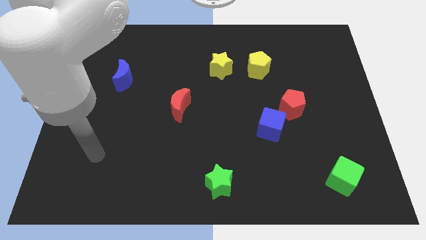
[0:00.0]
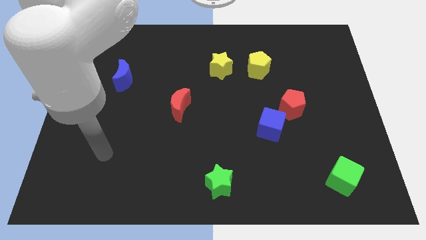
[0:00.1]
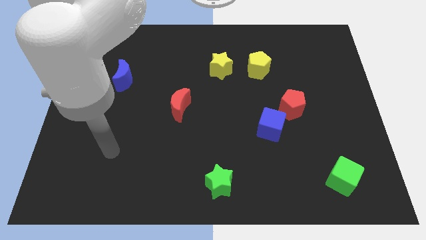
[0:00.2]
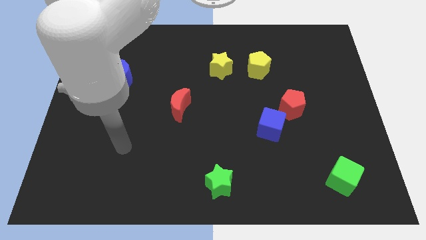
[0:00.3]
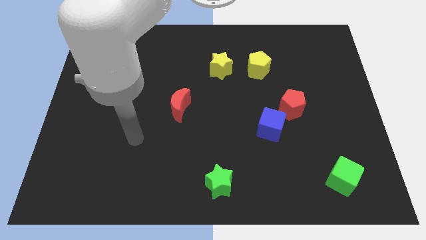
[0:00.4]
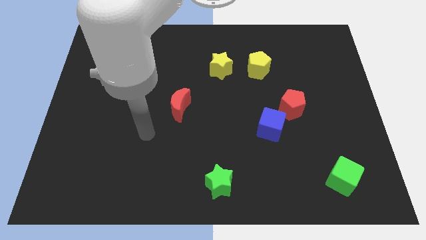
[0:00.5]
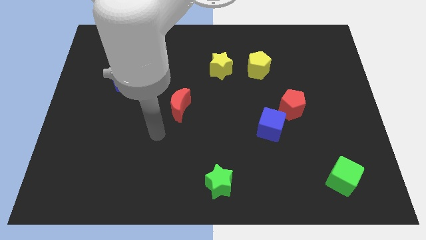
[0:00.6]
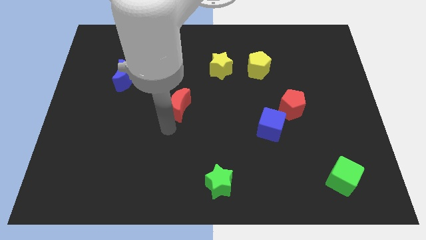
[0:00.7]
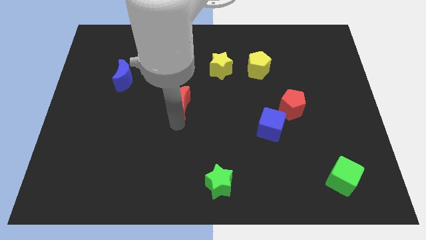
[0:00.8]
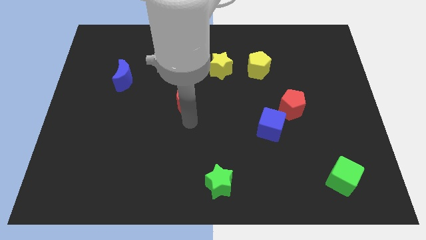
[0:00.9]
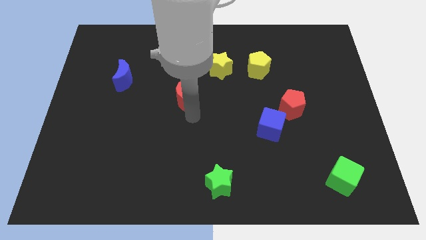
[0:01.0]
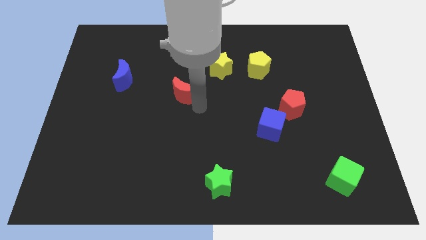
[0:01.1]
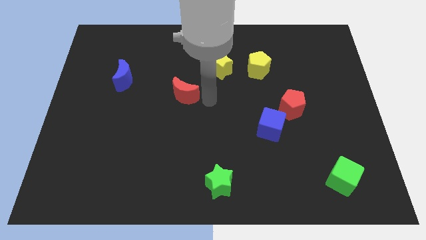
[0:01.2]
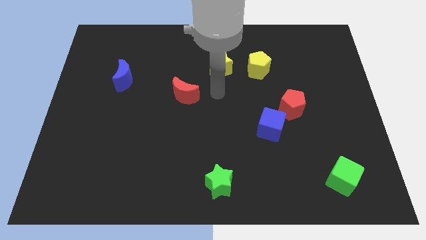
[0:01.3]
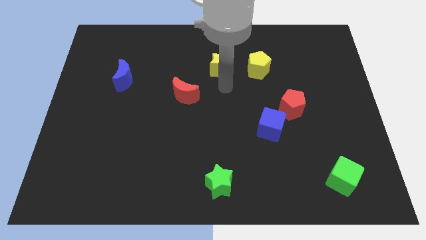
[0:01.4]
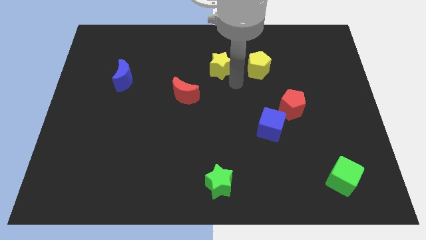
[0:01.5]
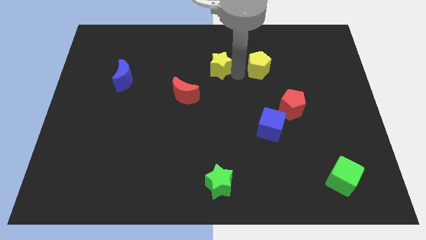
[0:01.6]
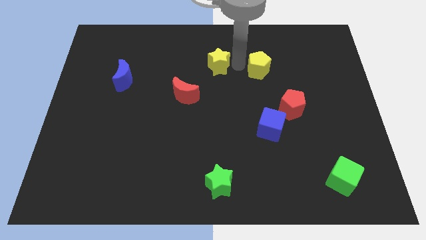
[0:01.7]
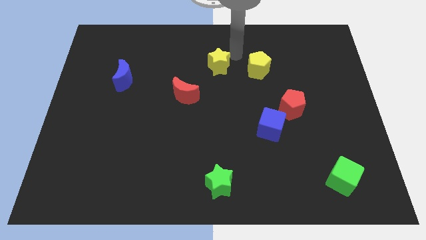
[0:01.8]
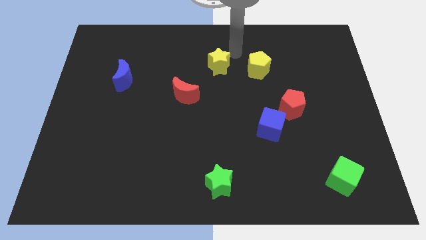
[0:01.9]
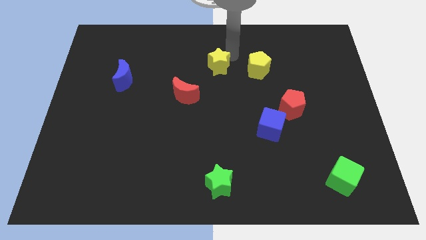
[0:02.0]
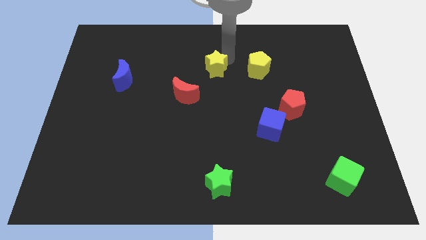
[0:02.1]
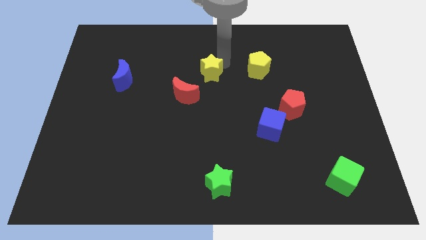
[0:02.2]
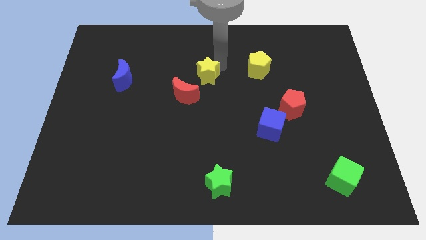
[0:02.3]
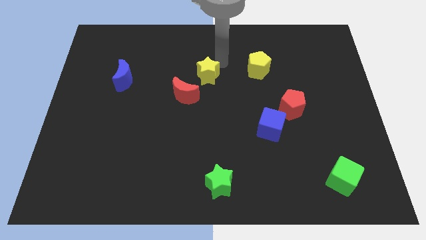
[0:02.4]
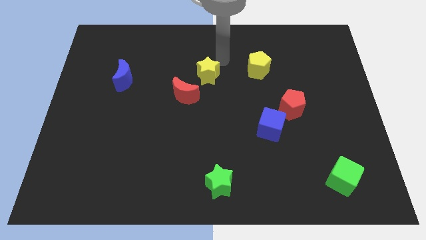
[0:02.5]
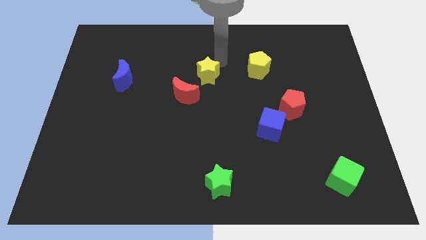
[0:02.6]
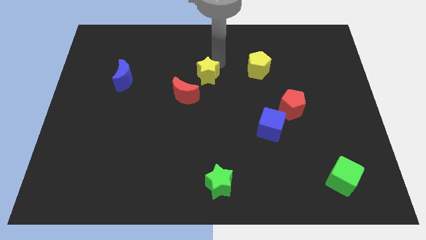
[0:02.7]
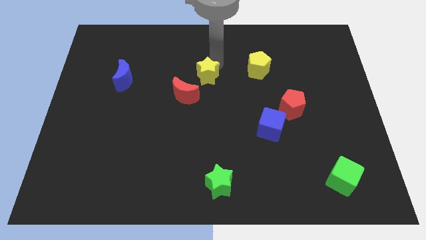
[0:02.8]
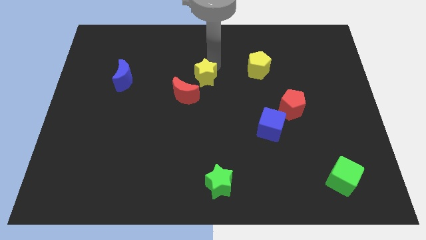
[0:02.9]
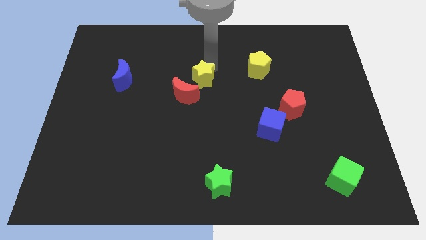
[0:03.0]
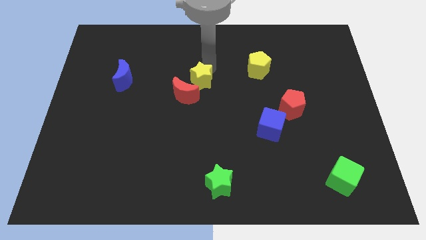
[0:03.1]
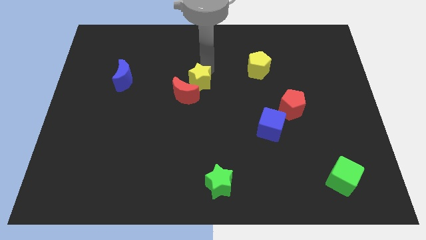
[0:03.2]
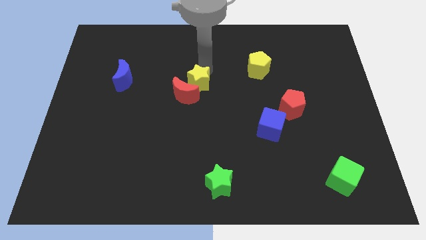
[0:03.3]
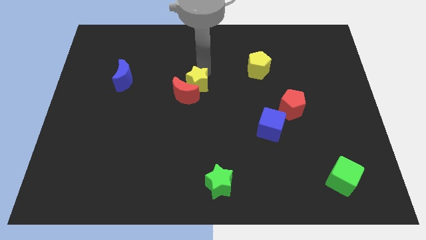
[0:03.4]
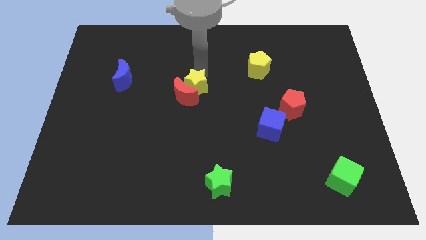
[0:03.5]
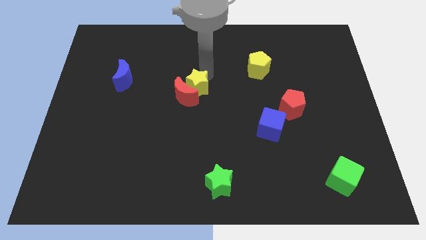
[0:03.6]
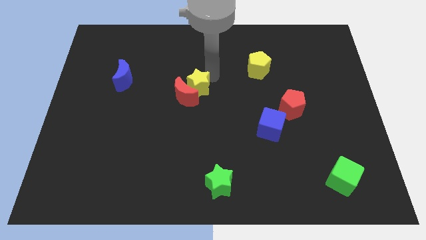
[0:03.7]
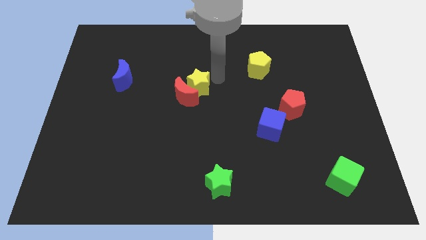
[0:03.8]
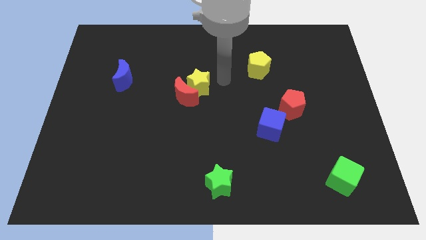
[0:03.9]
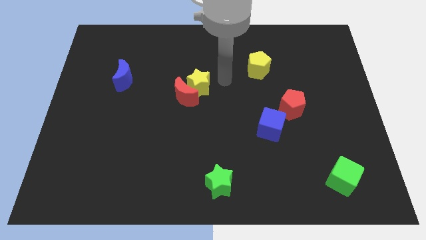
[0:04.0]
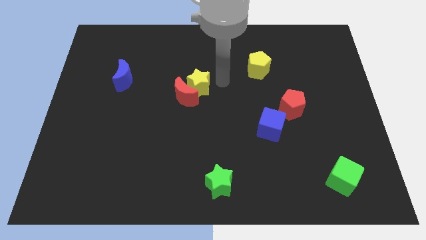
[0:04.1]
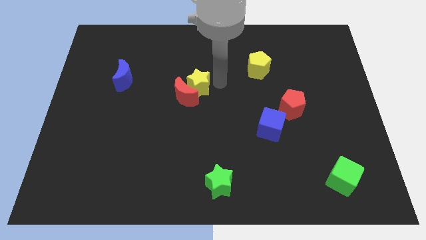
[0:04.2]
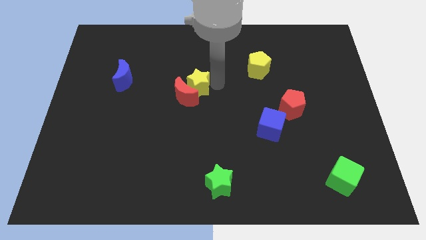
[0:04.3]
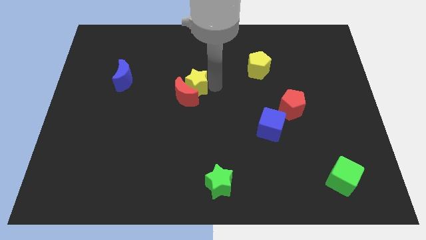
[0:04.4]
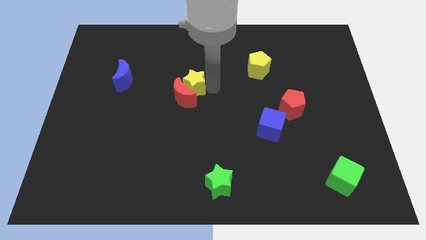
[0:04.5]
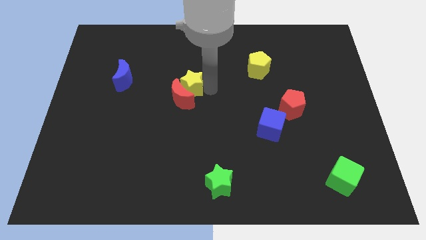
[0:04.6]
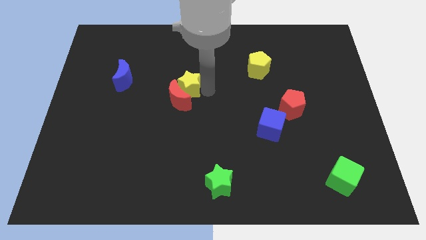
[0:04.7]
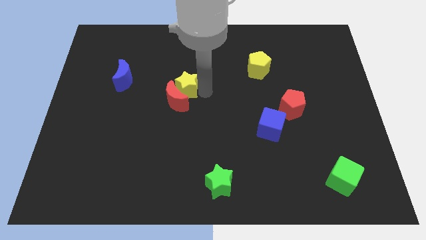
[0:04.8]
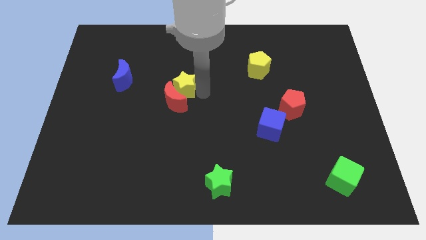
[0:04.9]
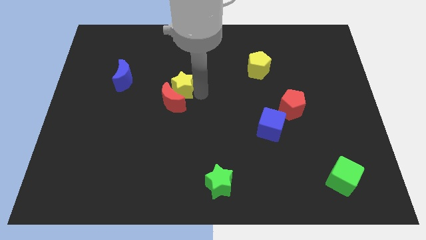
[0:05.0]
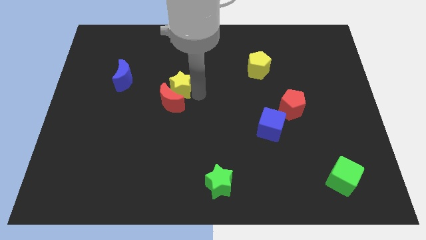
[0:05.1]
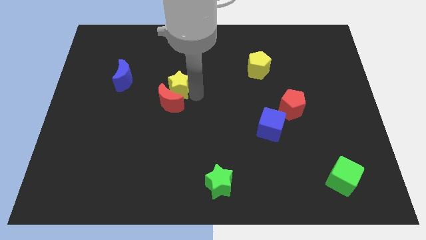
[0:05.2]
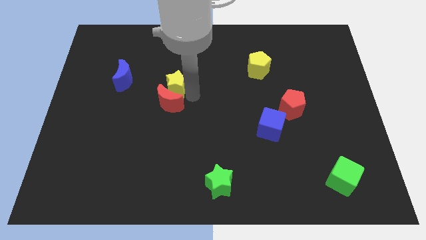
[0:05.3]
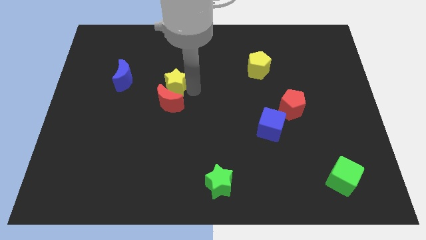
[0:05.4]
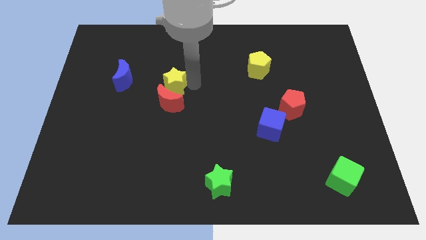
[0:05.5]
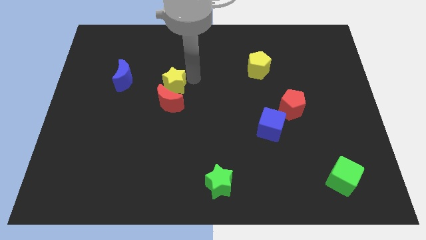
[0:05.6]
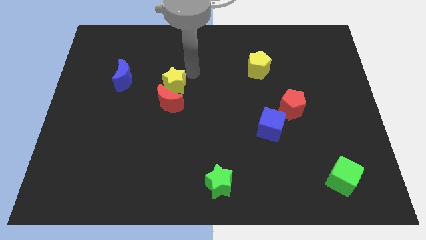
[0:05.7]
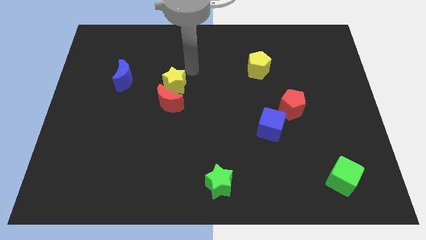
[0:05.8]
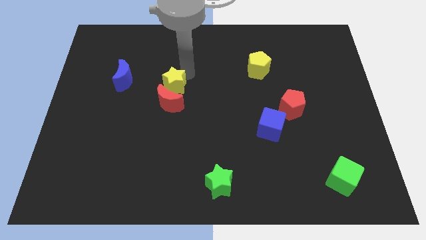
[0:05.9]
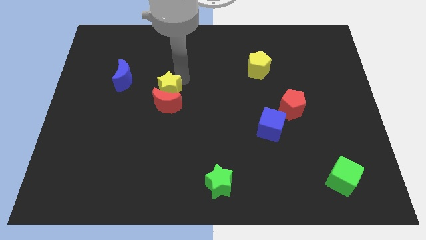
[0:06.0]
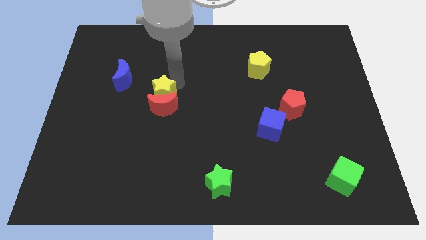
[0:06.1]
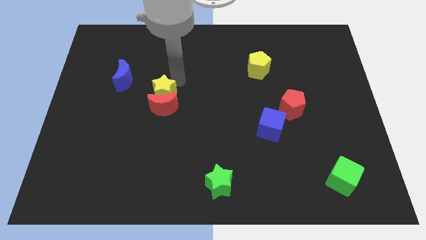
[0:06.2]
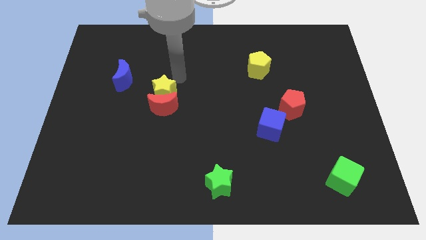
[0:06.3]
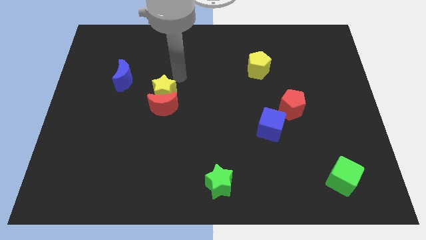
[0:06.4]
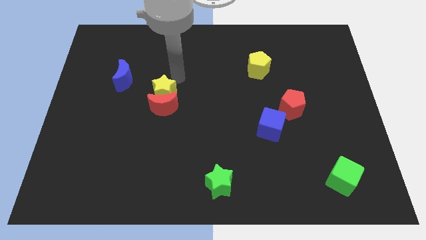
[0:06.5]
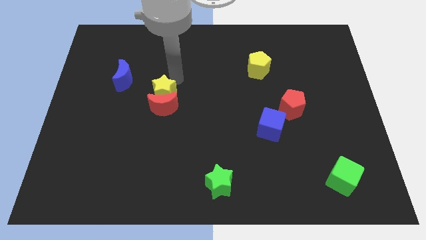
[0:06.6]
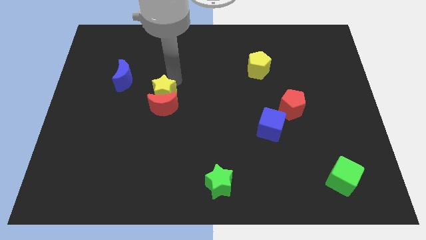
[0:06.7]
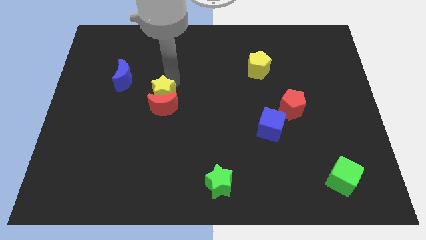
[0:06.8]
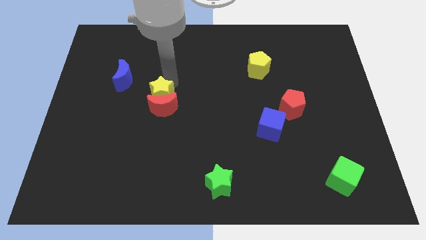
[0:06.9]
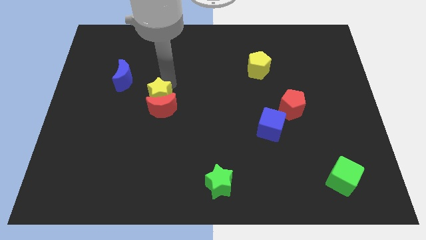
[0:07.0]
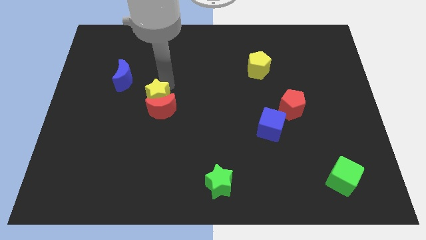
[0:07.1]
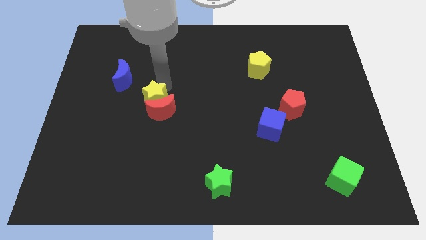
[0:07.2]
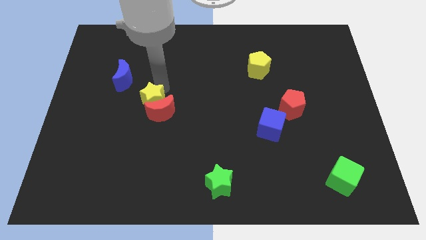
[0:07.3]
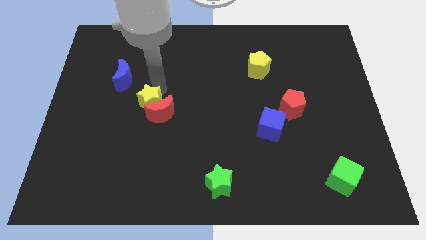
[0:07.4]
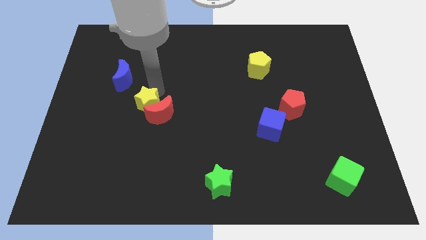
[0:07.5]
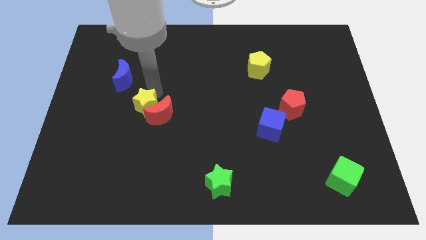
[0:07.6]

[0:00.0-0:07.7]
push the yellow star down and to the left diagonally
